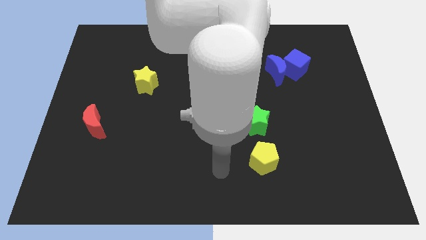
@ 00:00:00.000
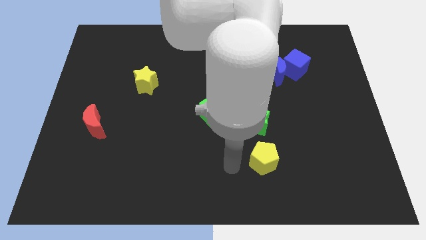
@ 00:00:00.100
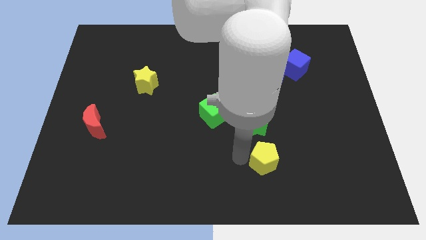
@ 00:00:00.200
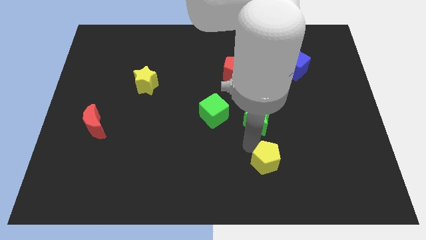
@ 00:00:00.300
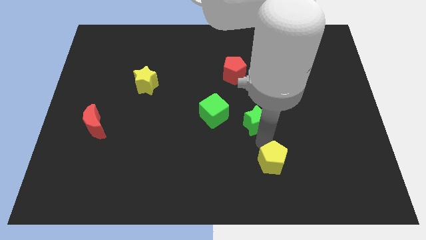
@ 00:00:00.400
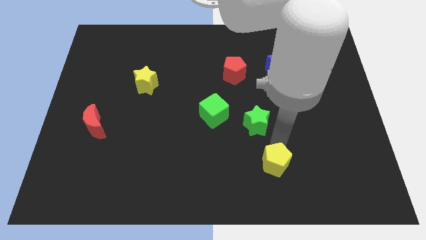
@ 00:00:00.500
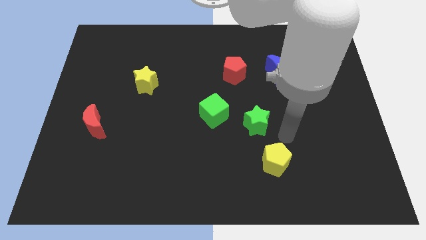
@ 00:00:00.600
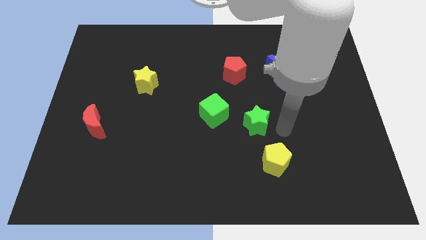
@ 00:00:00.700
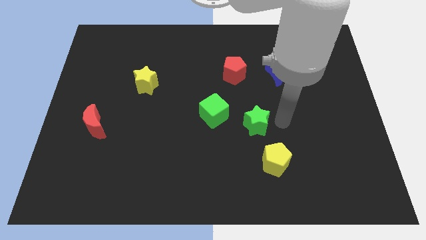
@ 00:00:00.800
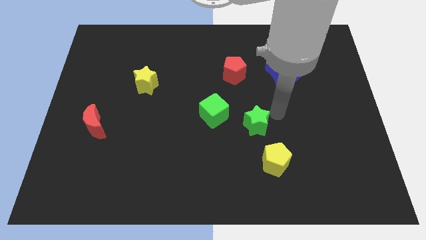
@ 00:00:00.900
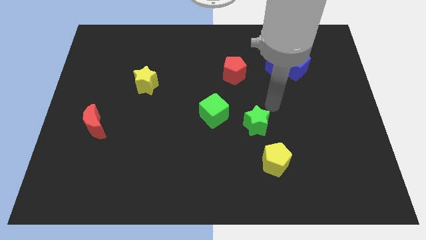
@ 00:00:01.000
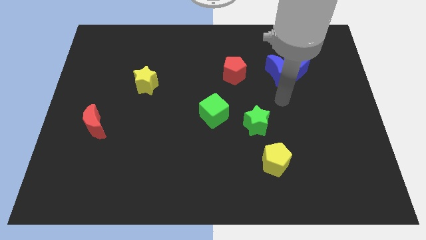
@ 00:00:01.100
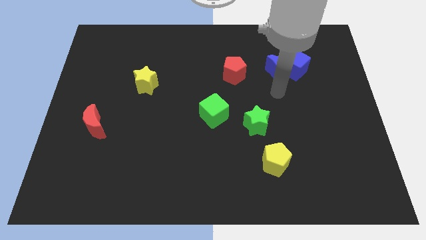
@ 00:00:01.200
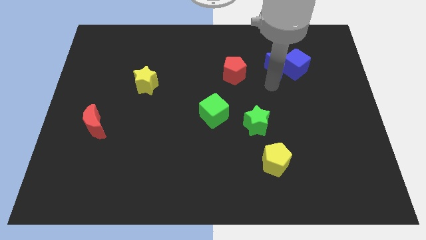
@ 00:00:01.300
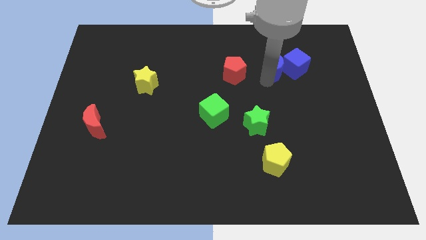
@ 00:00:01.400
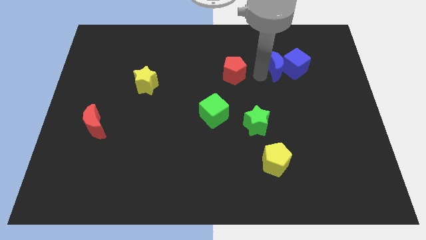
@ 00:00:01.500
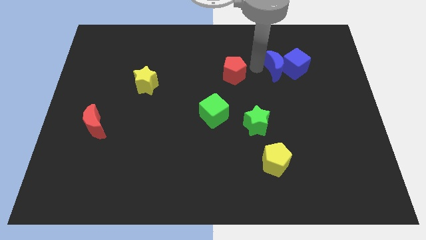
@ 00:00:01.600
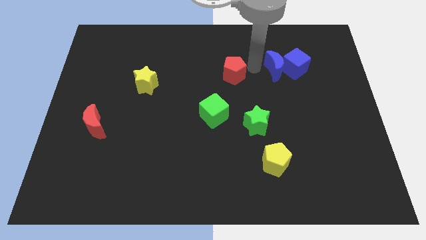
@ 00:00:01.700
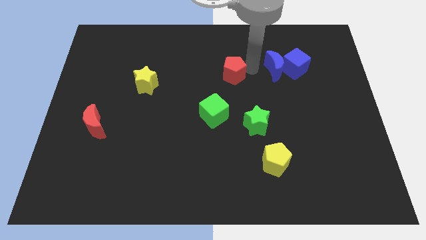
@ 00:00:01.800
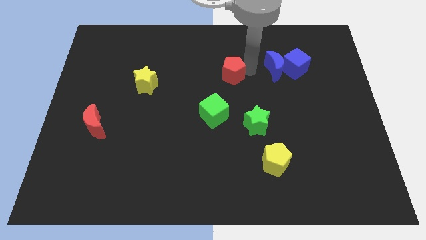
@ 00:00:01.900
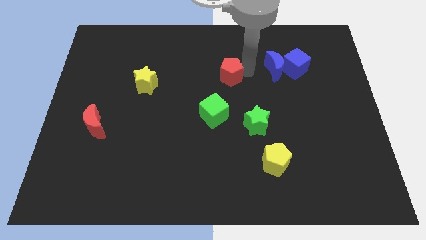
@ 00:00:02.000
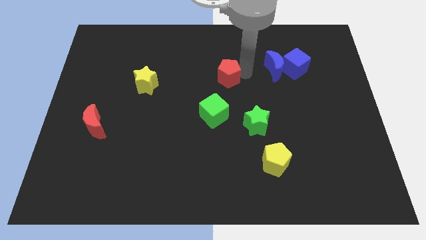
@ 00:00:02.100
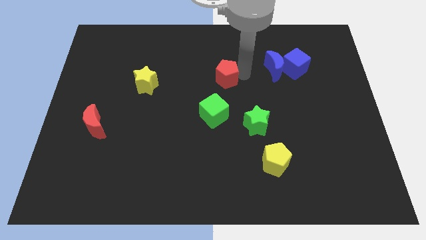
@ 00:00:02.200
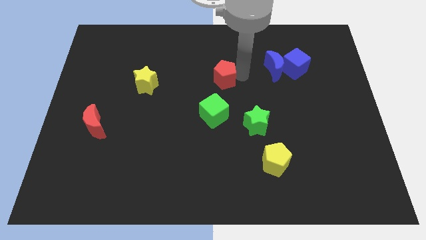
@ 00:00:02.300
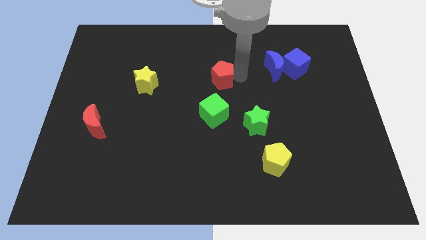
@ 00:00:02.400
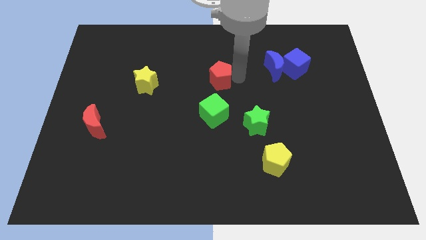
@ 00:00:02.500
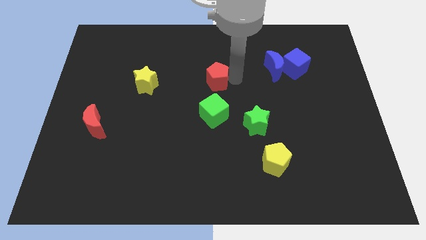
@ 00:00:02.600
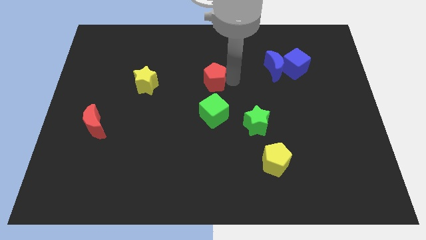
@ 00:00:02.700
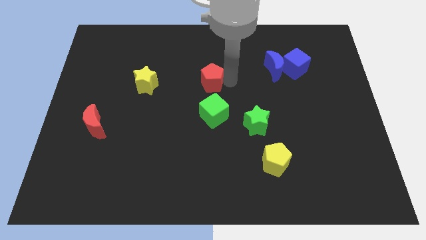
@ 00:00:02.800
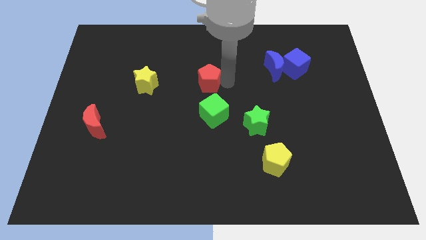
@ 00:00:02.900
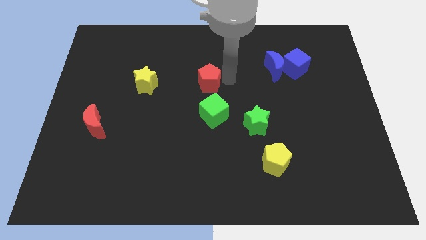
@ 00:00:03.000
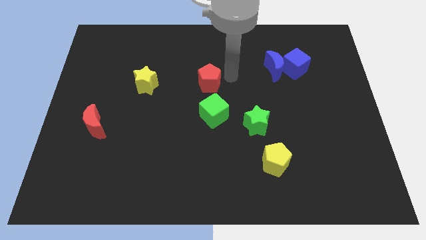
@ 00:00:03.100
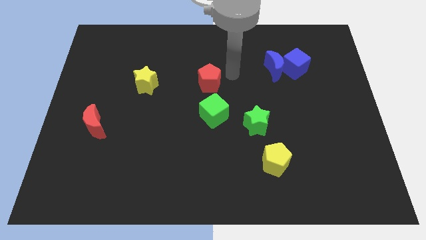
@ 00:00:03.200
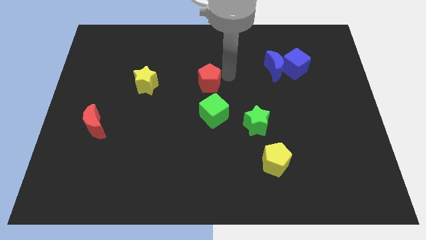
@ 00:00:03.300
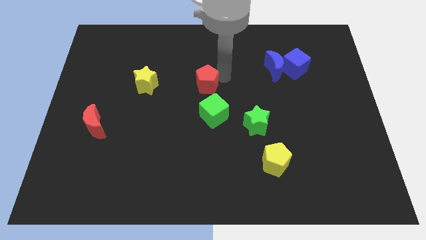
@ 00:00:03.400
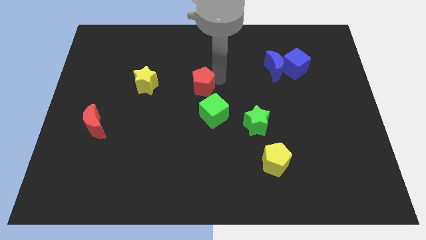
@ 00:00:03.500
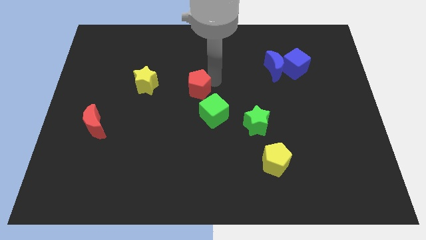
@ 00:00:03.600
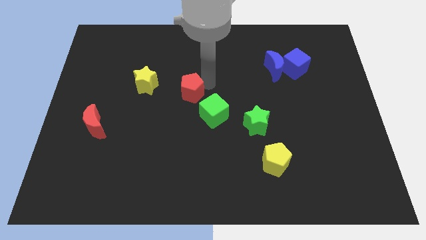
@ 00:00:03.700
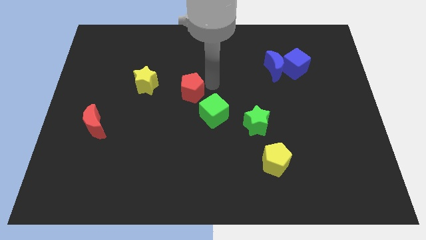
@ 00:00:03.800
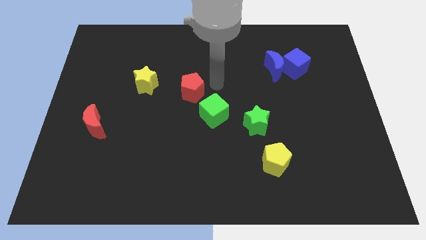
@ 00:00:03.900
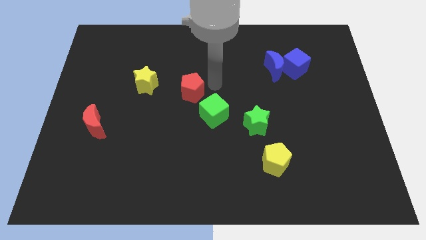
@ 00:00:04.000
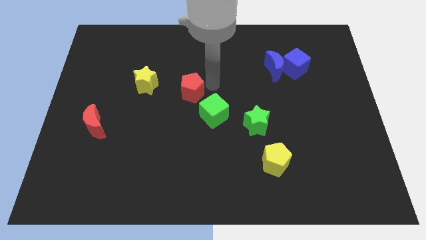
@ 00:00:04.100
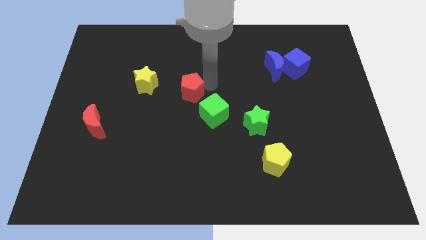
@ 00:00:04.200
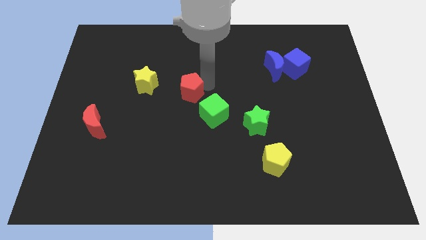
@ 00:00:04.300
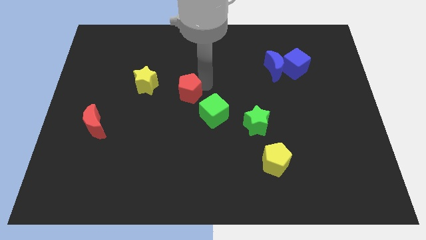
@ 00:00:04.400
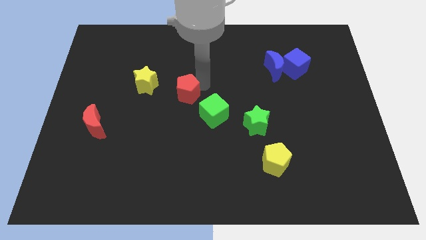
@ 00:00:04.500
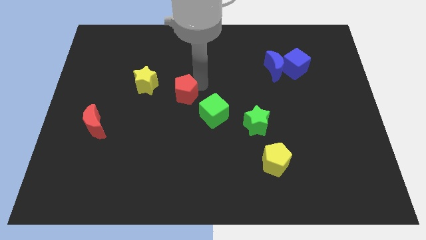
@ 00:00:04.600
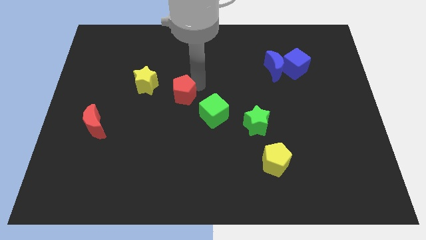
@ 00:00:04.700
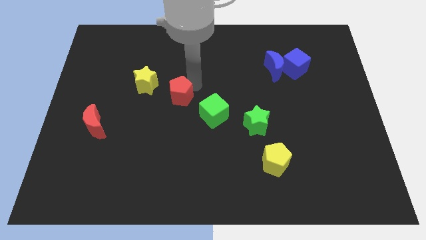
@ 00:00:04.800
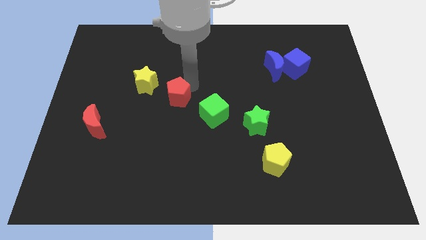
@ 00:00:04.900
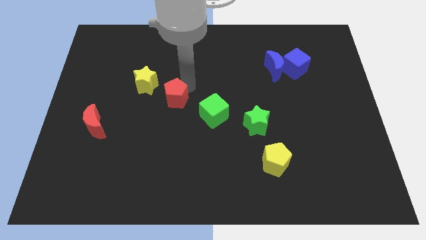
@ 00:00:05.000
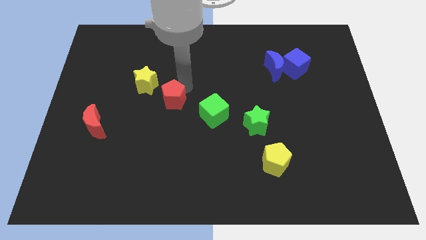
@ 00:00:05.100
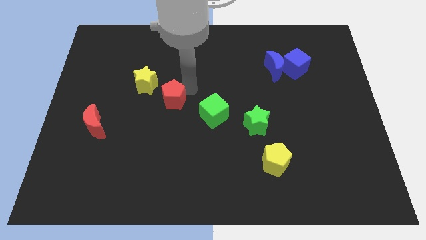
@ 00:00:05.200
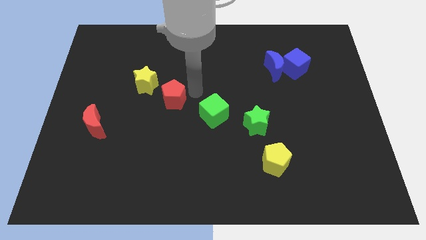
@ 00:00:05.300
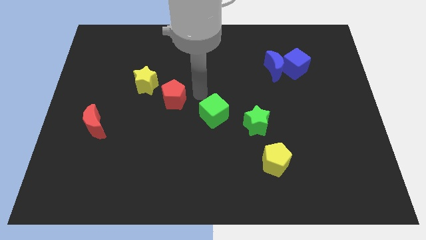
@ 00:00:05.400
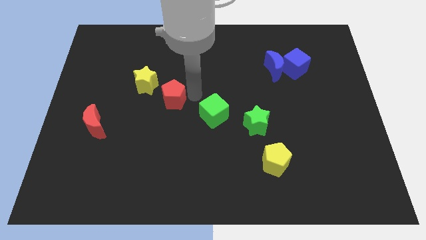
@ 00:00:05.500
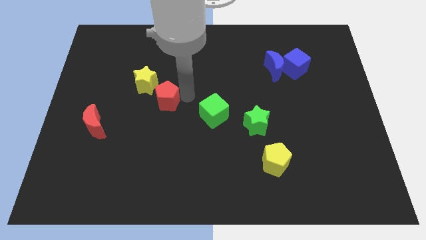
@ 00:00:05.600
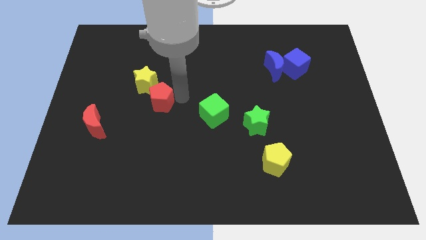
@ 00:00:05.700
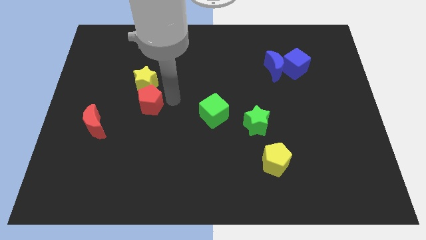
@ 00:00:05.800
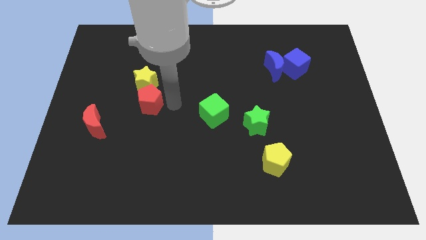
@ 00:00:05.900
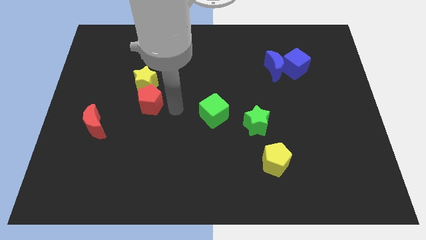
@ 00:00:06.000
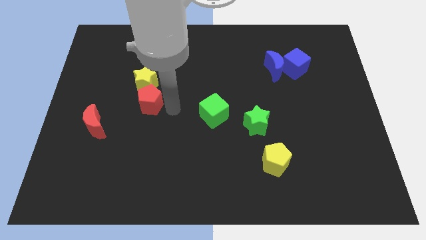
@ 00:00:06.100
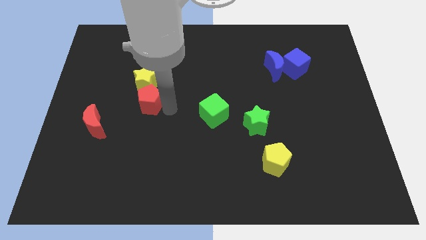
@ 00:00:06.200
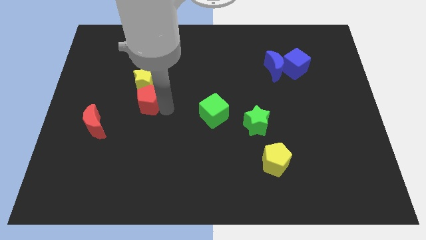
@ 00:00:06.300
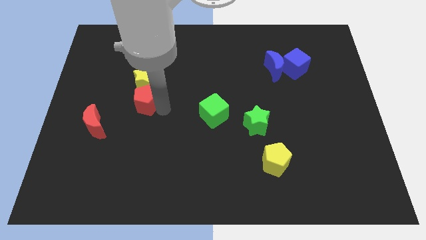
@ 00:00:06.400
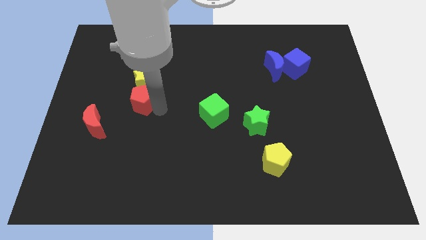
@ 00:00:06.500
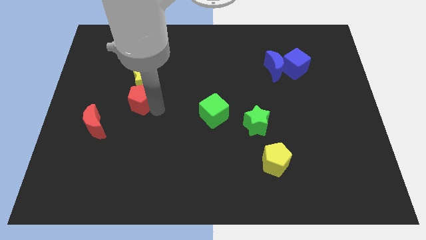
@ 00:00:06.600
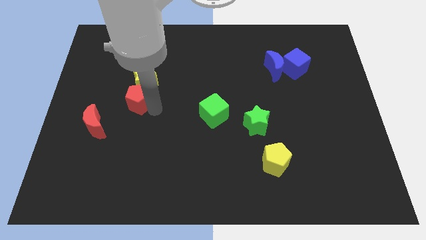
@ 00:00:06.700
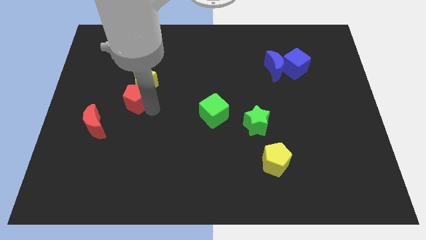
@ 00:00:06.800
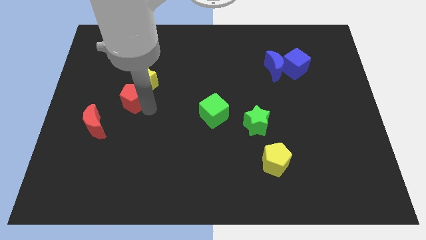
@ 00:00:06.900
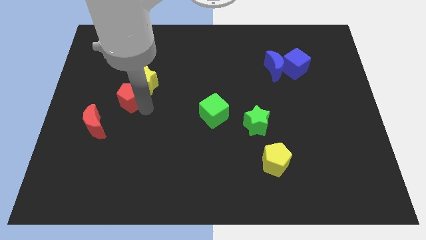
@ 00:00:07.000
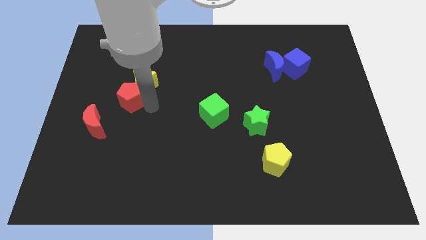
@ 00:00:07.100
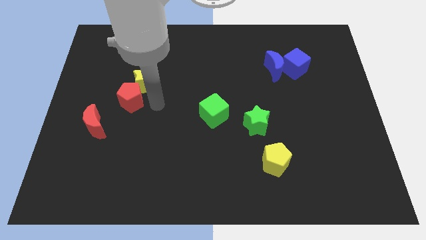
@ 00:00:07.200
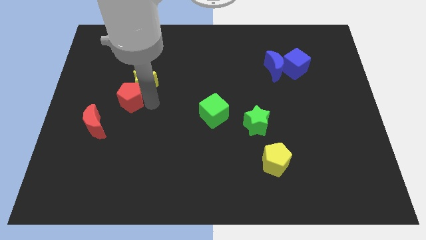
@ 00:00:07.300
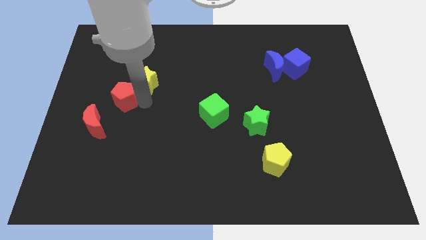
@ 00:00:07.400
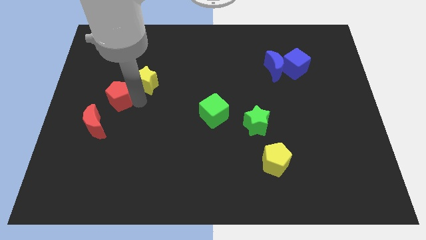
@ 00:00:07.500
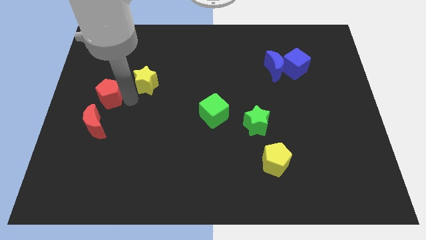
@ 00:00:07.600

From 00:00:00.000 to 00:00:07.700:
move the red pentagon to the left side of the board
